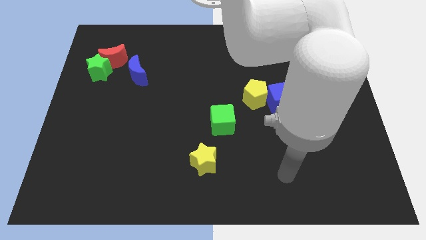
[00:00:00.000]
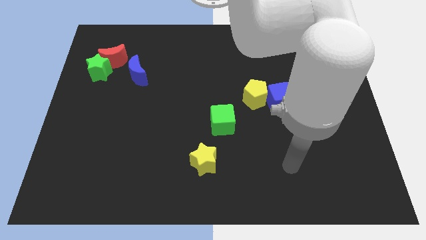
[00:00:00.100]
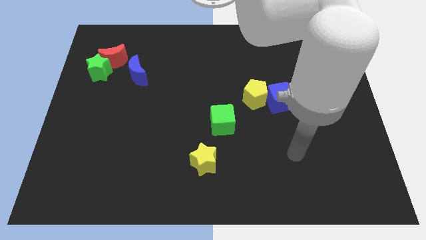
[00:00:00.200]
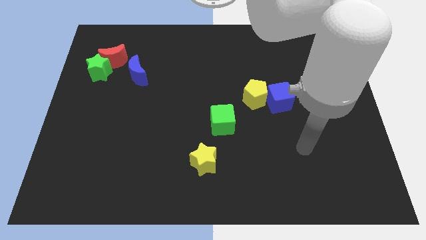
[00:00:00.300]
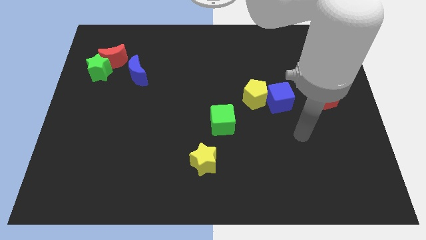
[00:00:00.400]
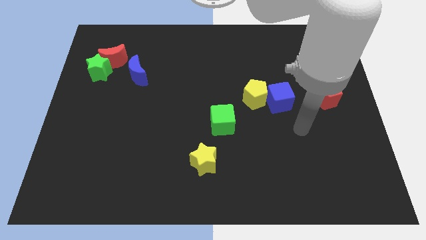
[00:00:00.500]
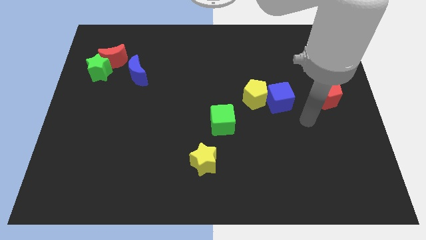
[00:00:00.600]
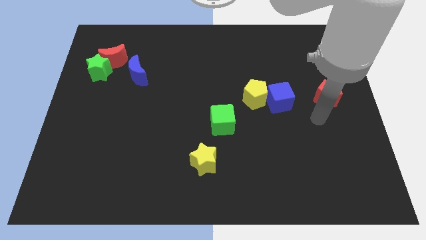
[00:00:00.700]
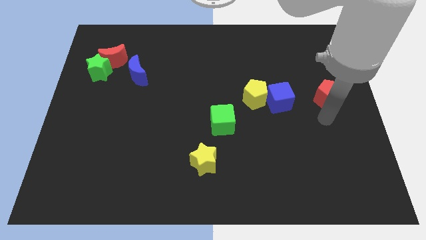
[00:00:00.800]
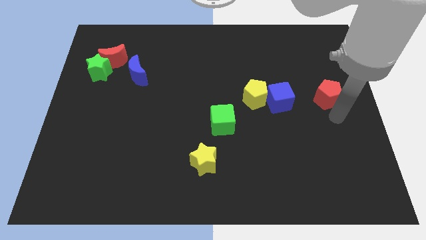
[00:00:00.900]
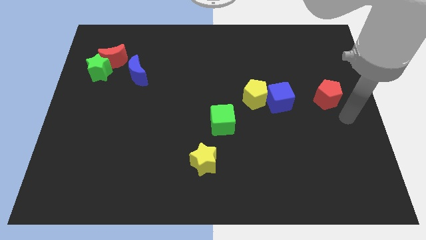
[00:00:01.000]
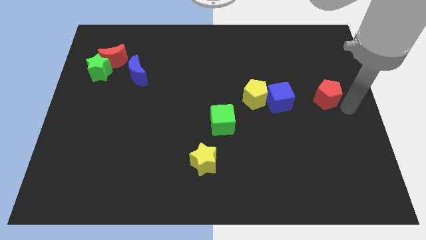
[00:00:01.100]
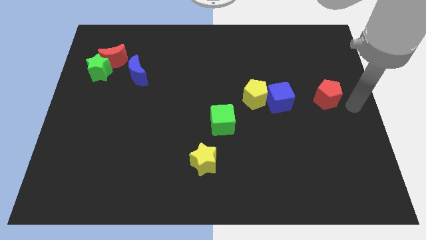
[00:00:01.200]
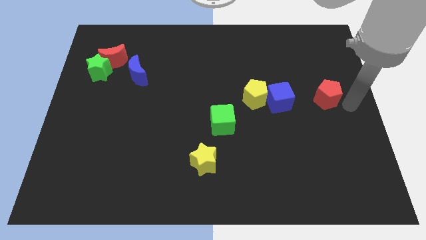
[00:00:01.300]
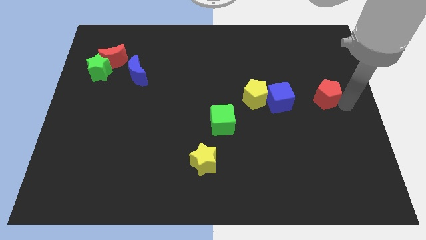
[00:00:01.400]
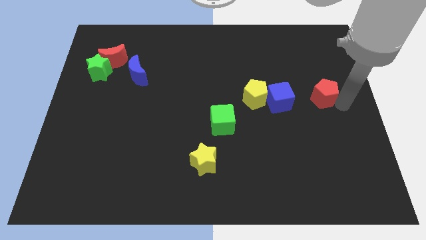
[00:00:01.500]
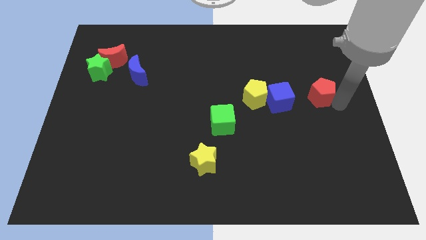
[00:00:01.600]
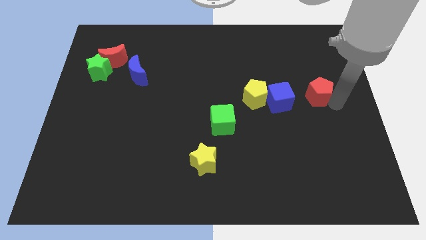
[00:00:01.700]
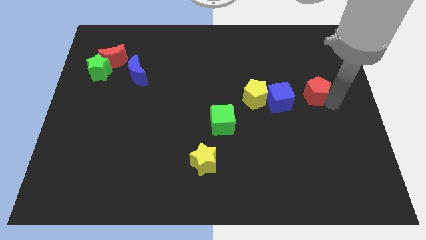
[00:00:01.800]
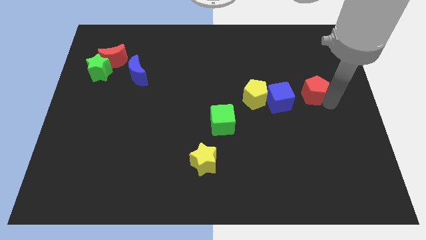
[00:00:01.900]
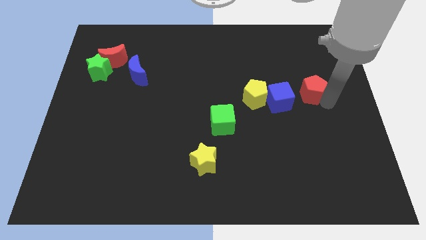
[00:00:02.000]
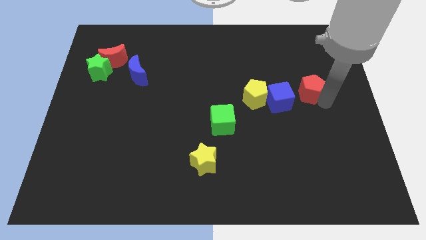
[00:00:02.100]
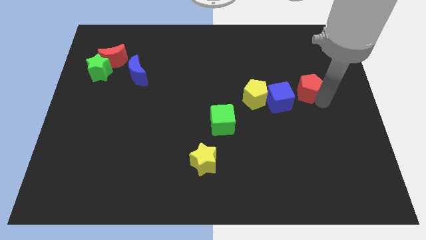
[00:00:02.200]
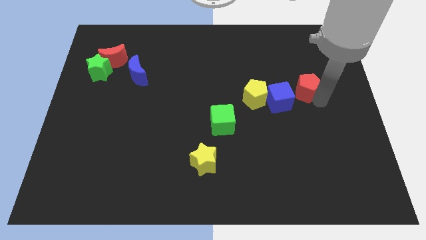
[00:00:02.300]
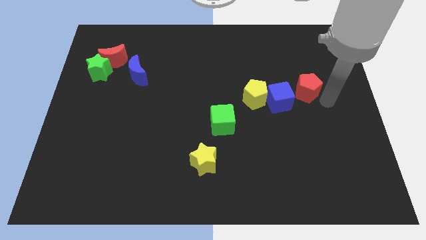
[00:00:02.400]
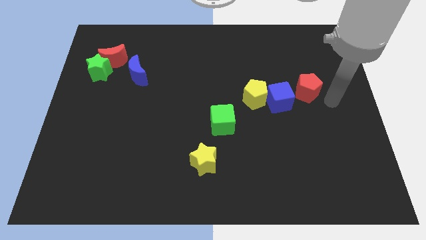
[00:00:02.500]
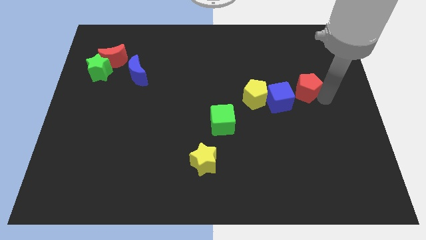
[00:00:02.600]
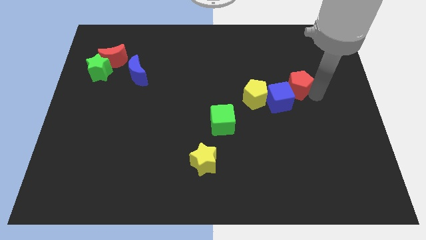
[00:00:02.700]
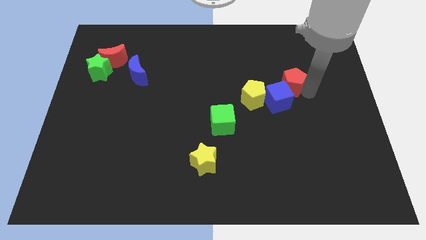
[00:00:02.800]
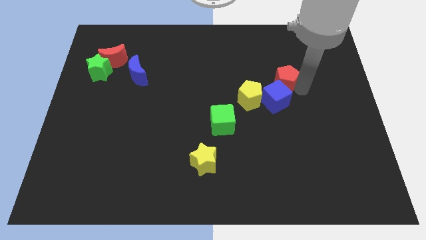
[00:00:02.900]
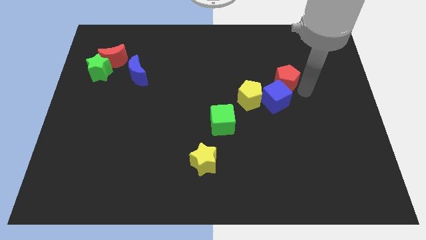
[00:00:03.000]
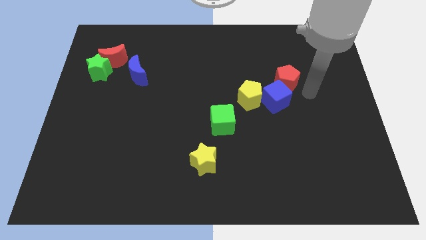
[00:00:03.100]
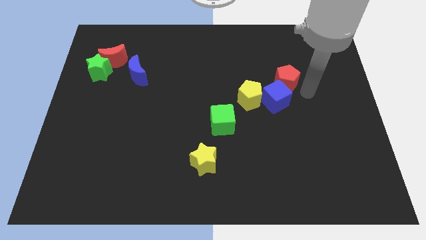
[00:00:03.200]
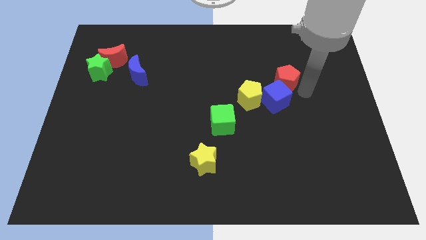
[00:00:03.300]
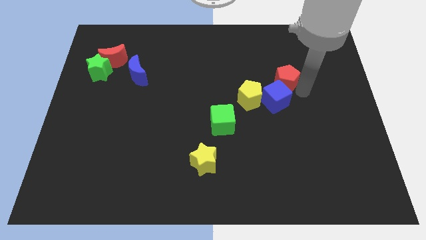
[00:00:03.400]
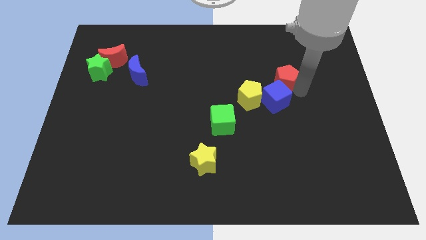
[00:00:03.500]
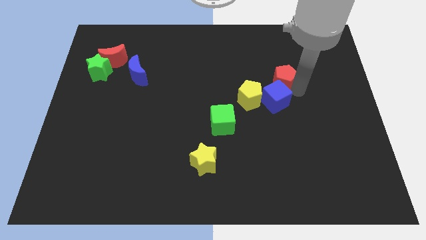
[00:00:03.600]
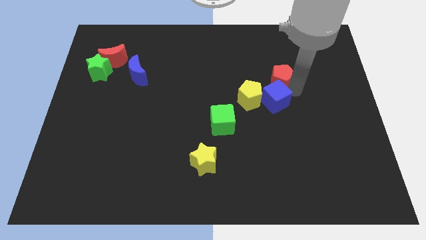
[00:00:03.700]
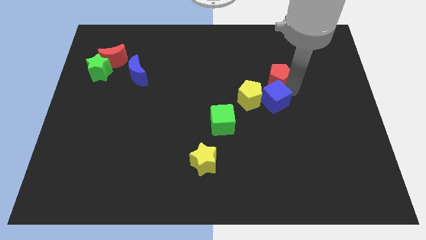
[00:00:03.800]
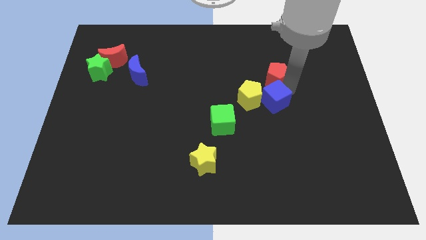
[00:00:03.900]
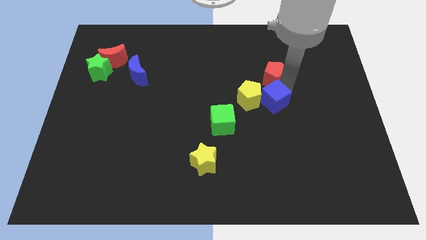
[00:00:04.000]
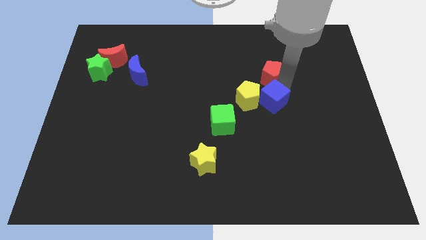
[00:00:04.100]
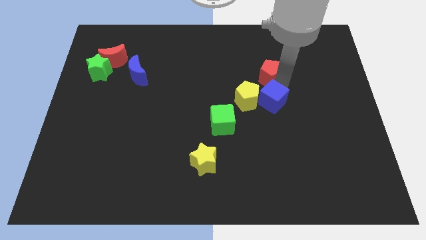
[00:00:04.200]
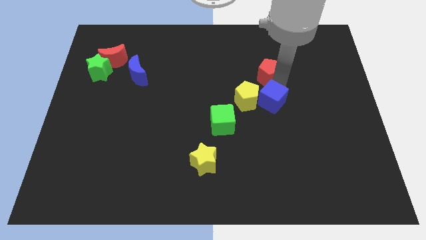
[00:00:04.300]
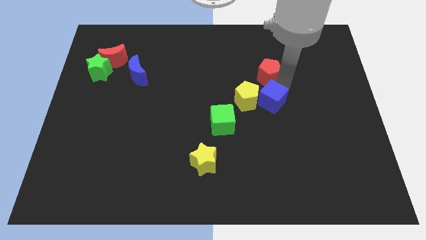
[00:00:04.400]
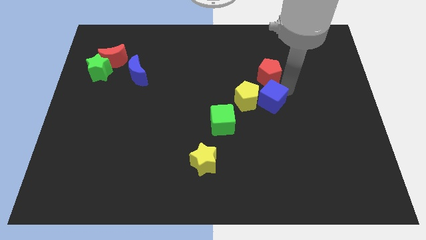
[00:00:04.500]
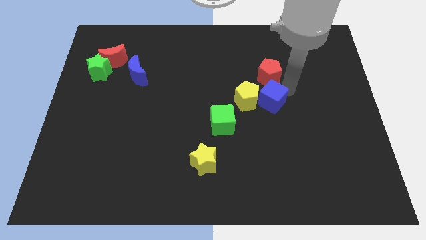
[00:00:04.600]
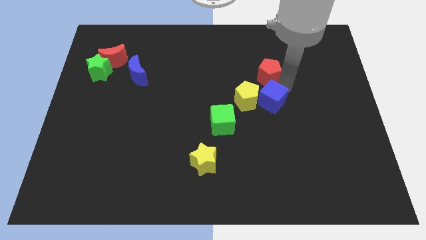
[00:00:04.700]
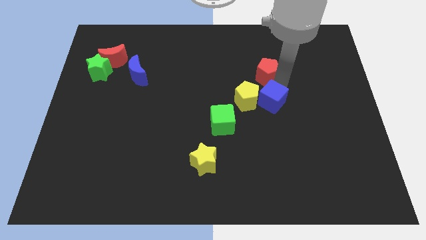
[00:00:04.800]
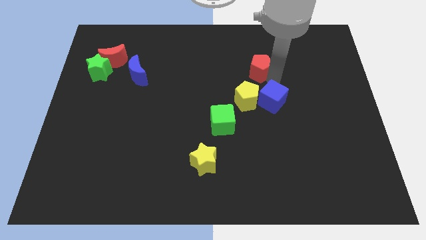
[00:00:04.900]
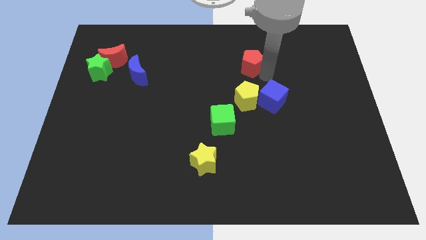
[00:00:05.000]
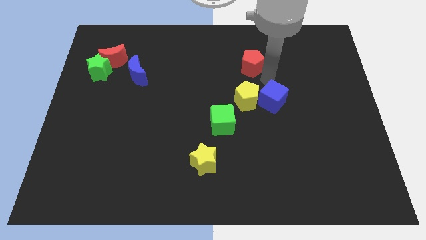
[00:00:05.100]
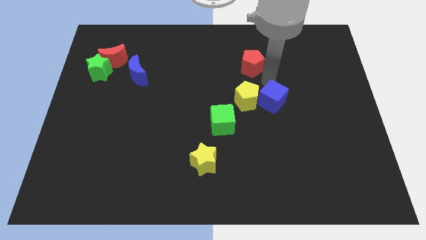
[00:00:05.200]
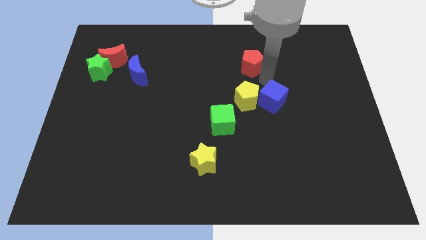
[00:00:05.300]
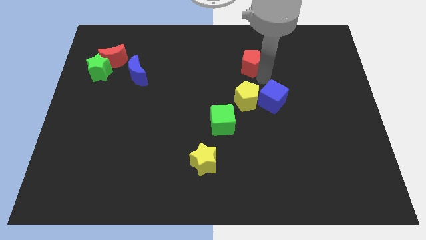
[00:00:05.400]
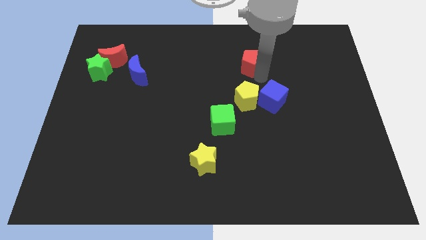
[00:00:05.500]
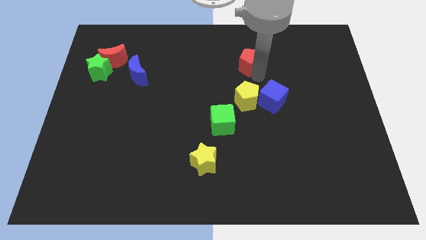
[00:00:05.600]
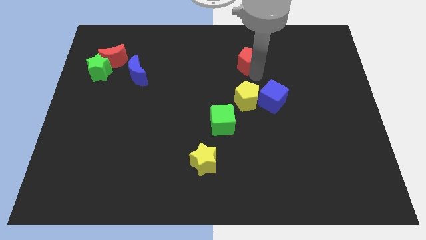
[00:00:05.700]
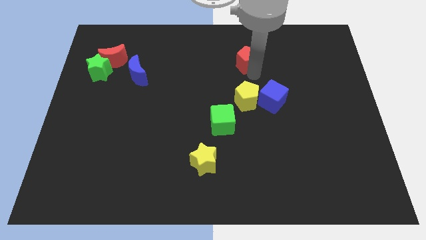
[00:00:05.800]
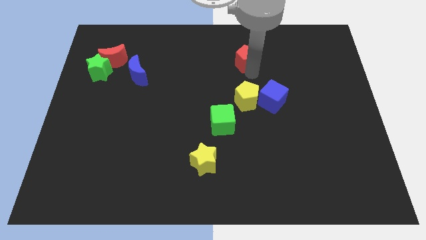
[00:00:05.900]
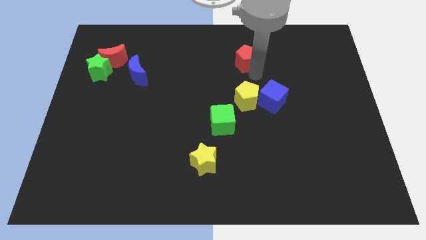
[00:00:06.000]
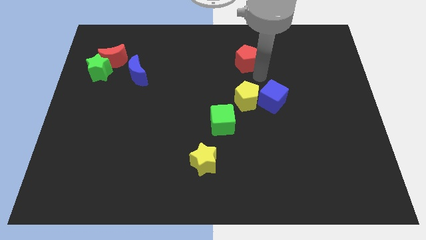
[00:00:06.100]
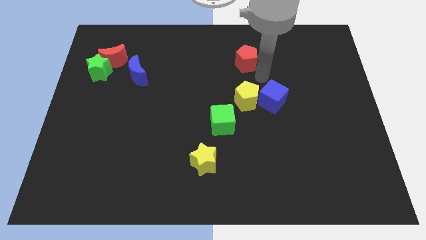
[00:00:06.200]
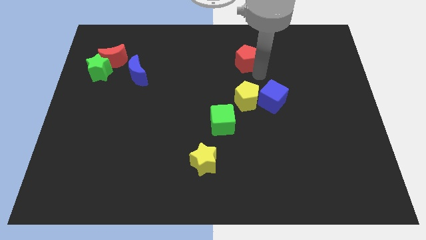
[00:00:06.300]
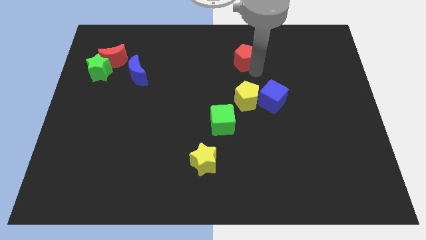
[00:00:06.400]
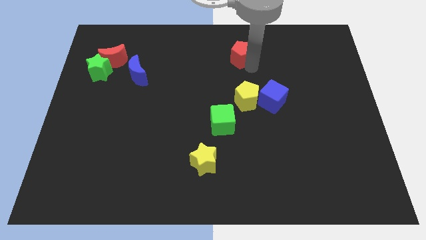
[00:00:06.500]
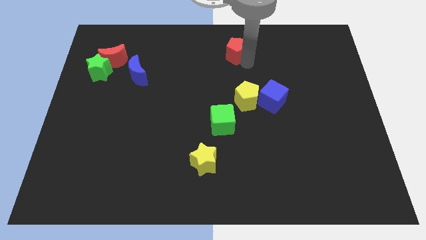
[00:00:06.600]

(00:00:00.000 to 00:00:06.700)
push the red pentagon to the towards your base
